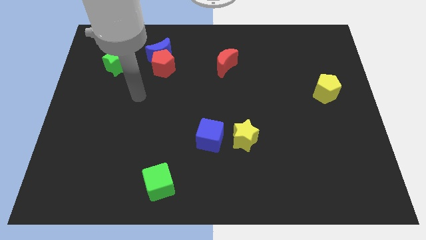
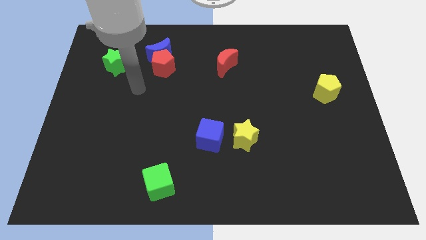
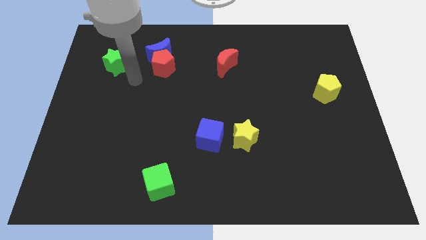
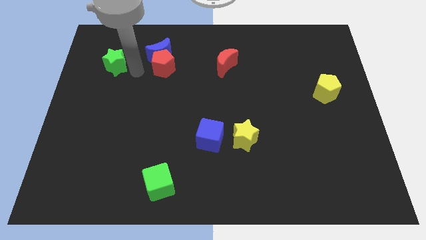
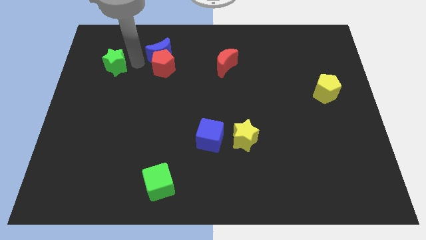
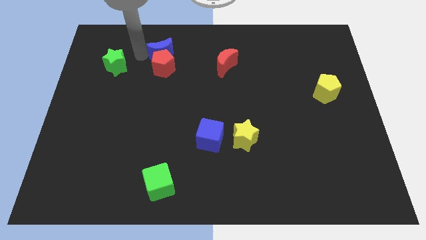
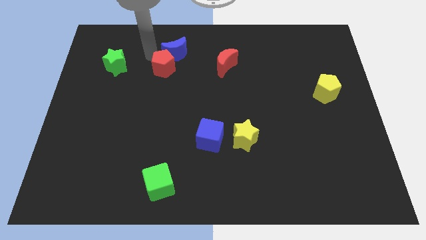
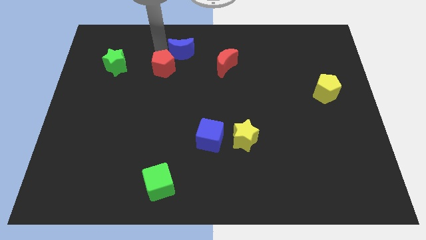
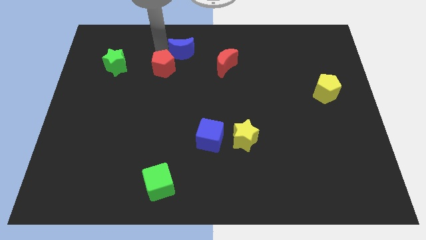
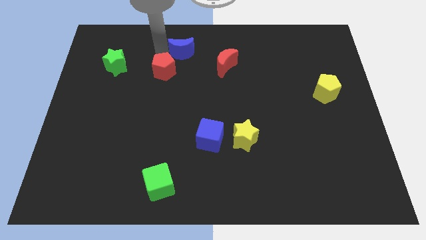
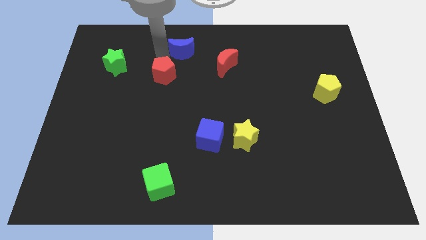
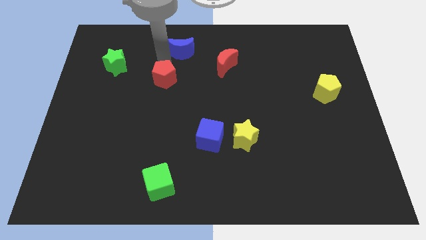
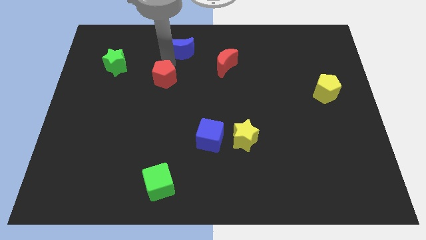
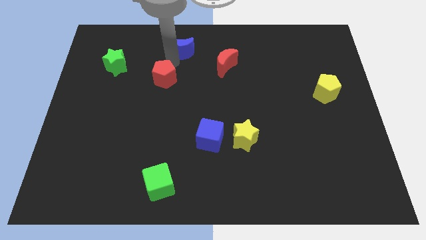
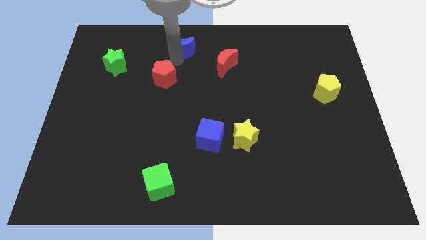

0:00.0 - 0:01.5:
move the red pentagon away from the blue moon

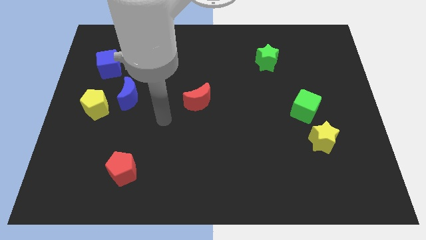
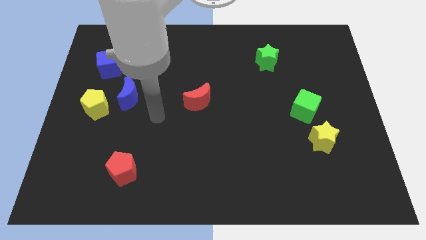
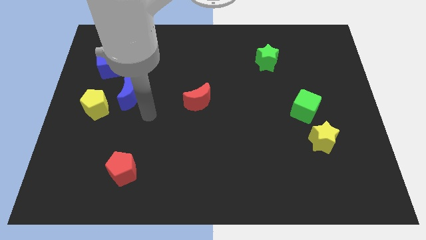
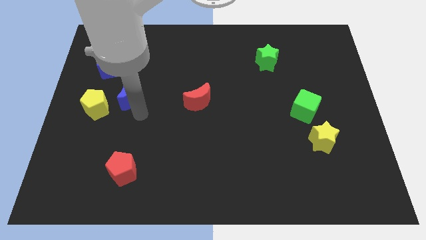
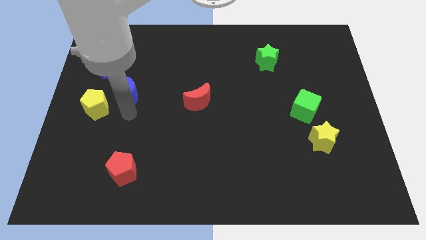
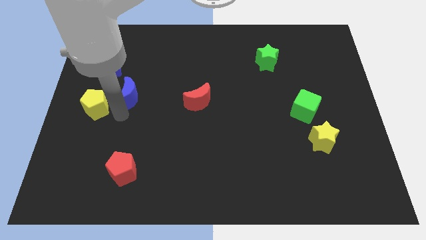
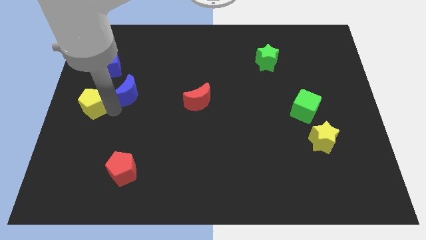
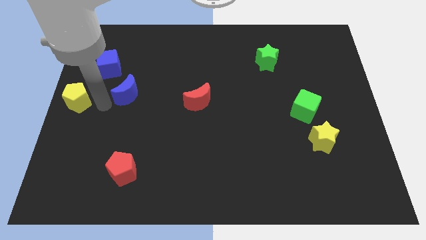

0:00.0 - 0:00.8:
move the blue moon away from the yellow pentagon

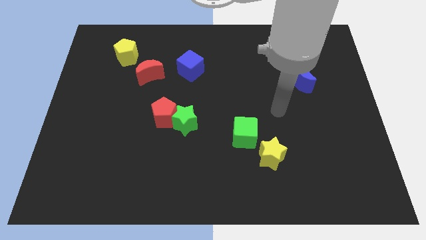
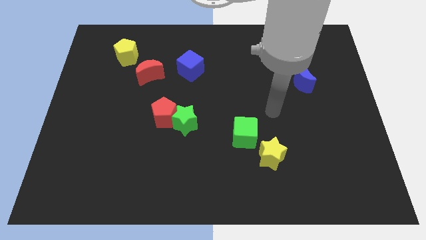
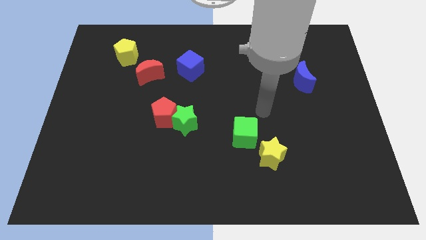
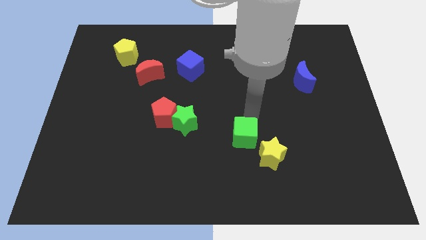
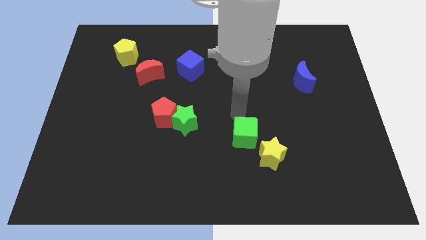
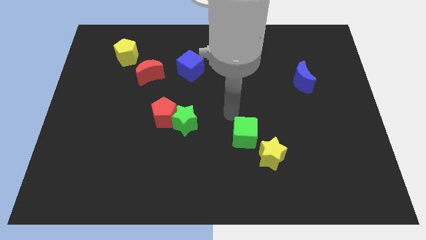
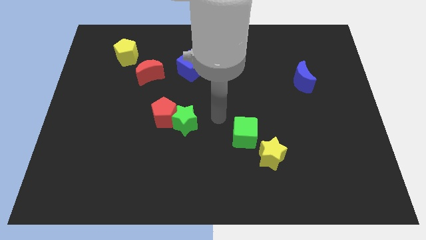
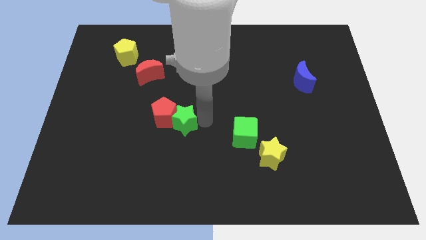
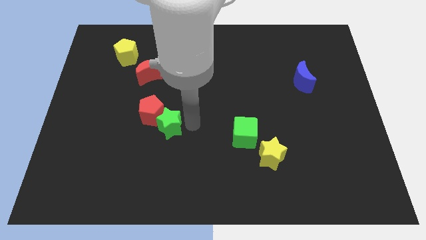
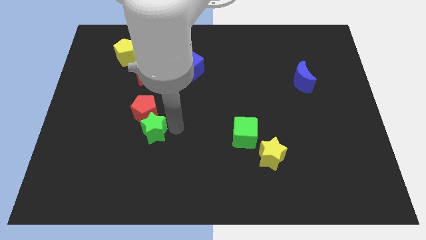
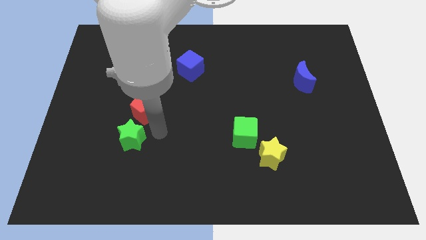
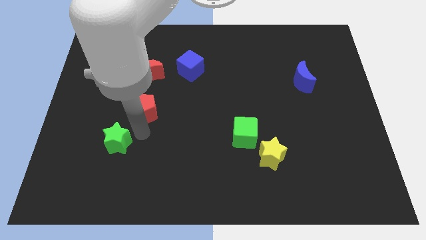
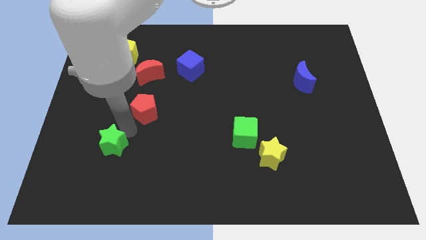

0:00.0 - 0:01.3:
pull the red pentagon apart from the green star

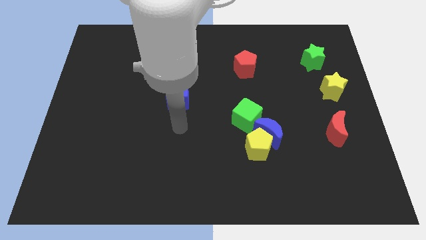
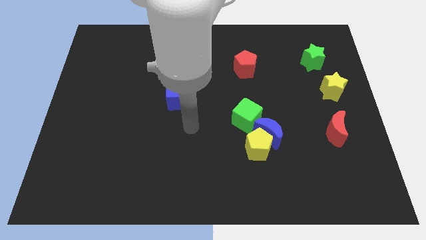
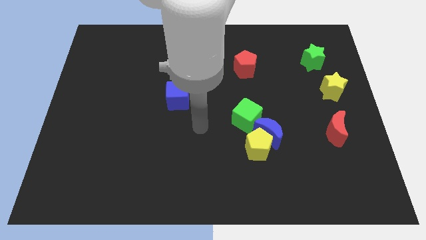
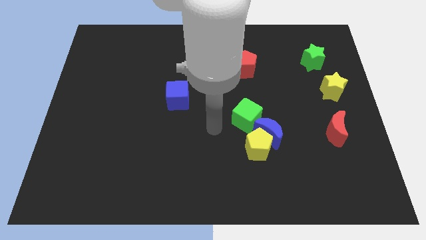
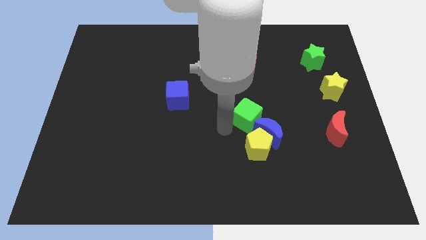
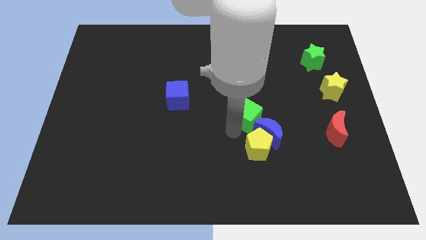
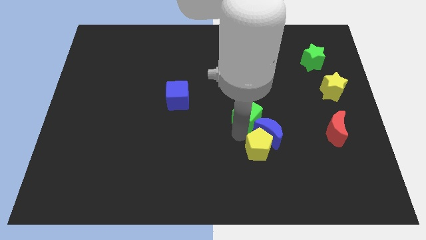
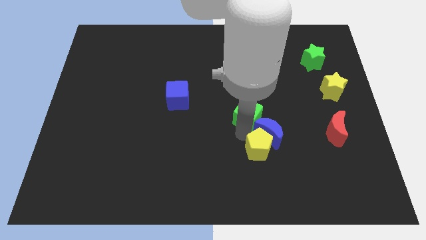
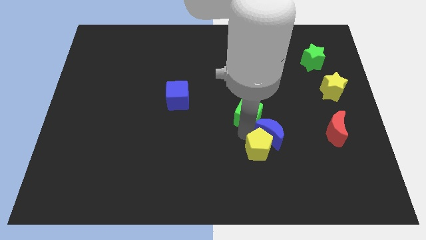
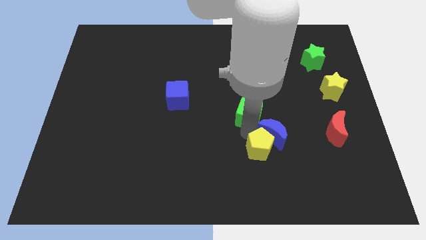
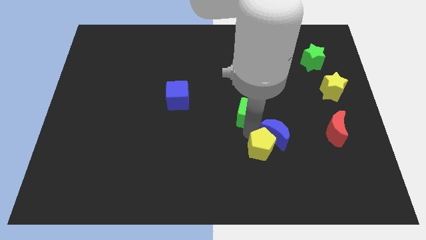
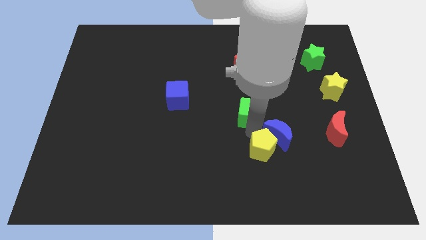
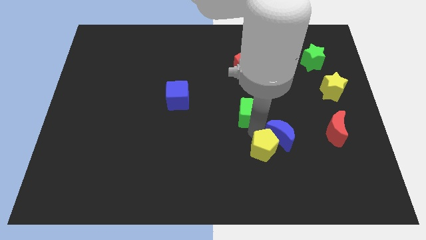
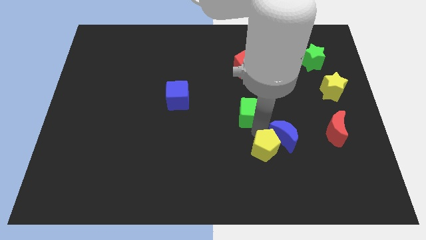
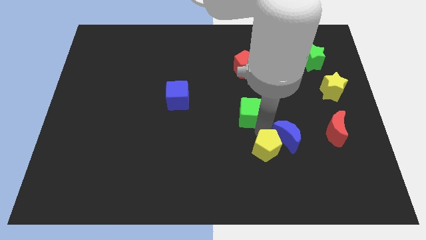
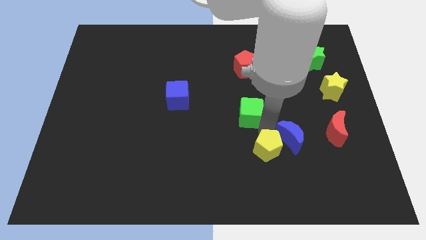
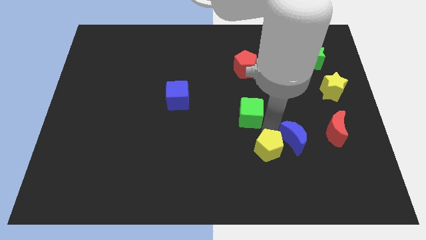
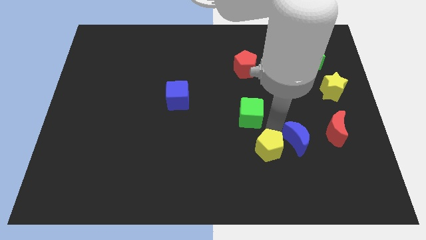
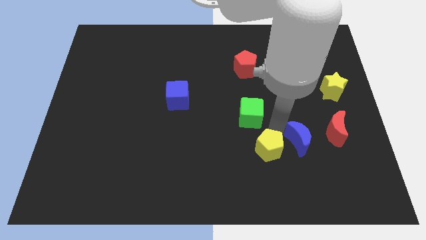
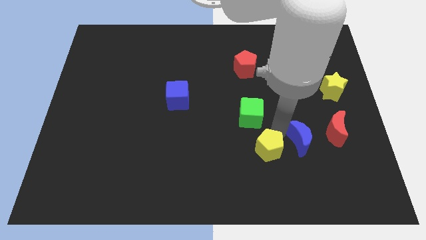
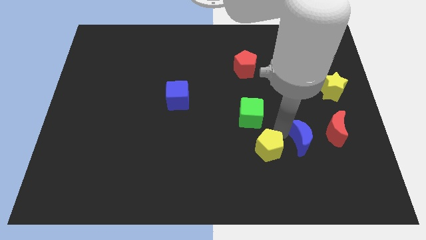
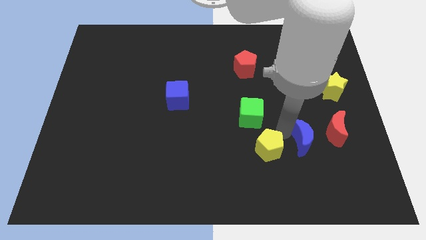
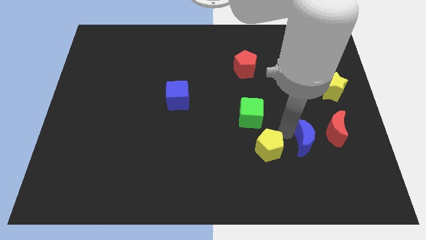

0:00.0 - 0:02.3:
move the blue moon away from the yellow pentagon and green cube

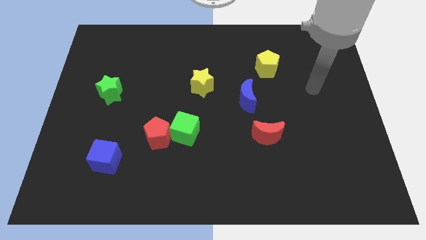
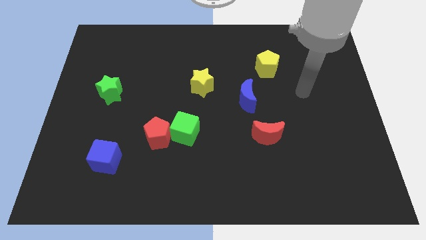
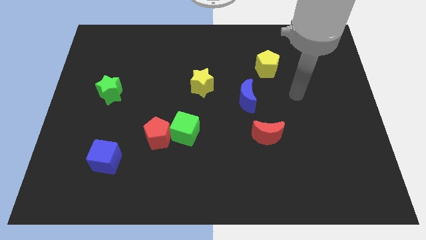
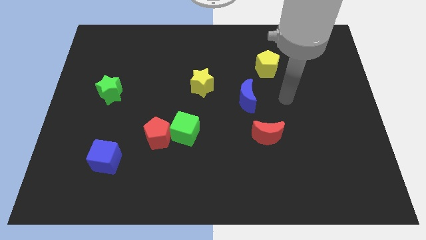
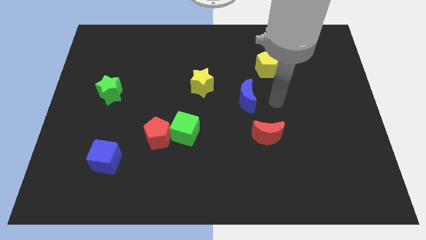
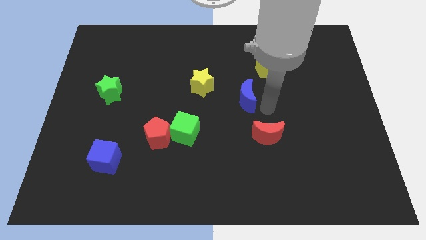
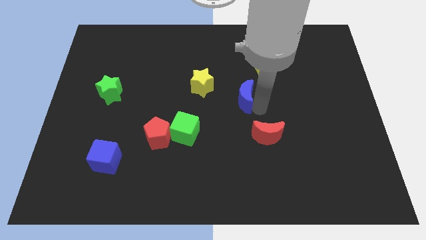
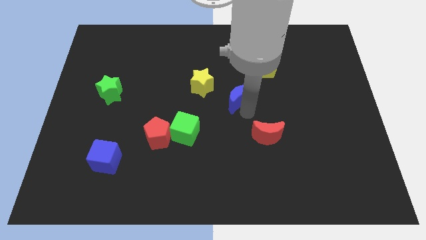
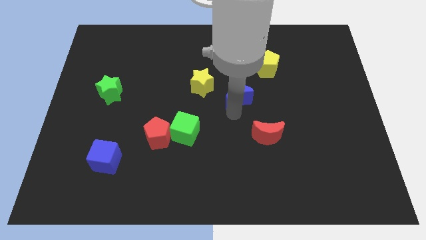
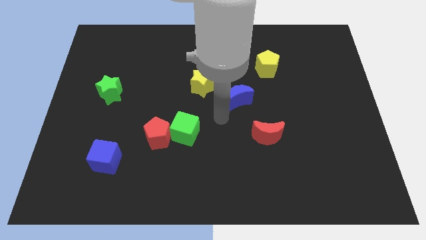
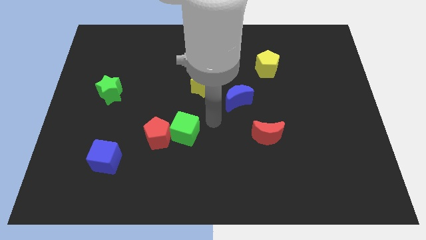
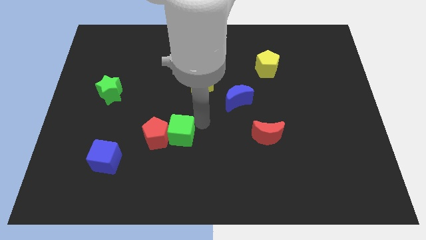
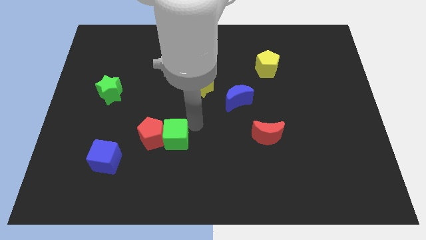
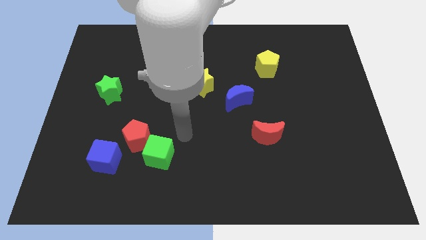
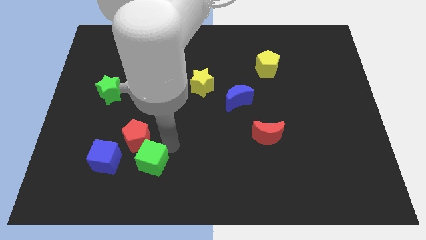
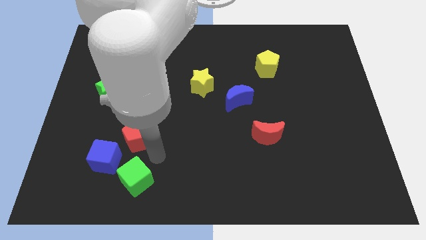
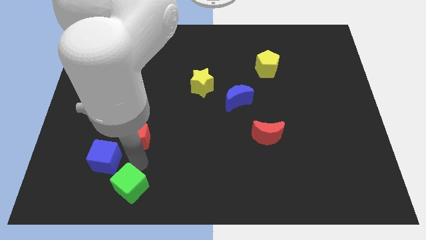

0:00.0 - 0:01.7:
move the red pentagon away from the green cube

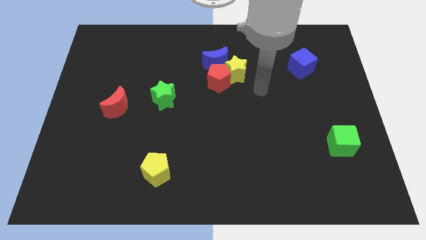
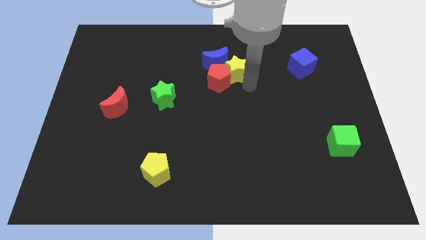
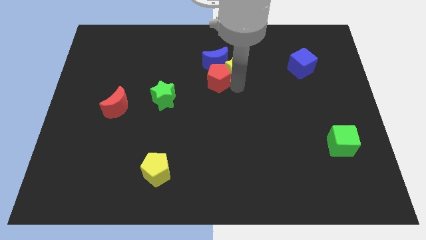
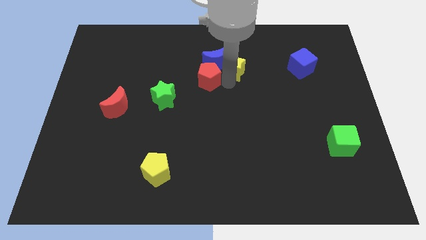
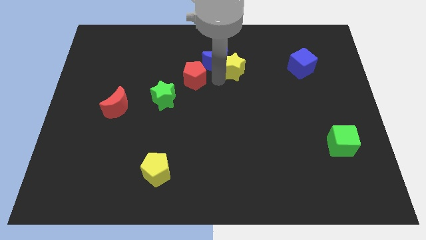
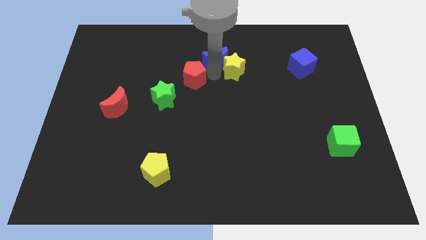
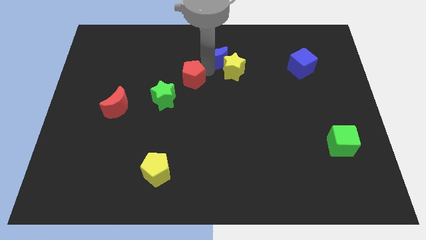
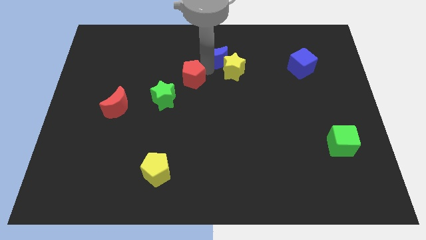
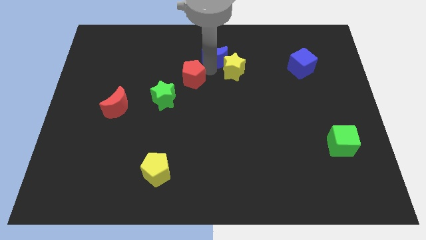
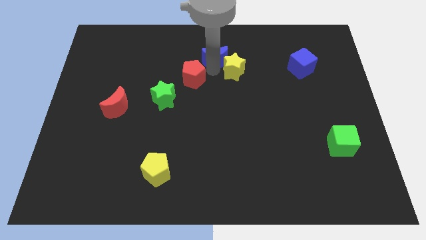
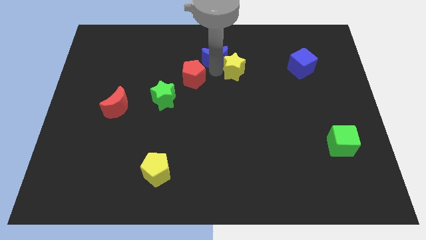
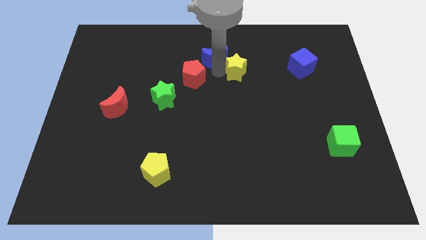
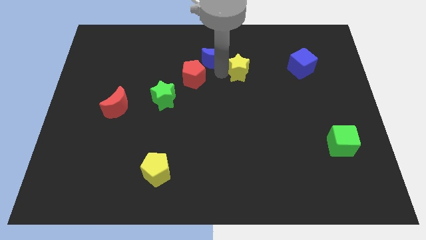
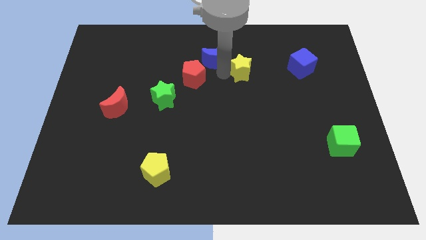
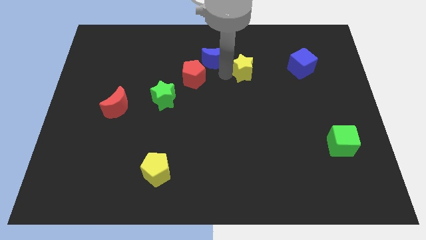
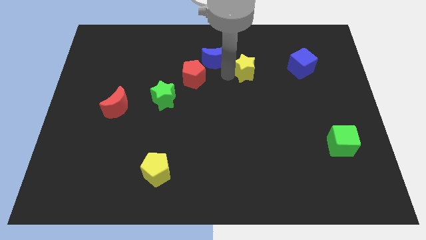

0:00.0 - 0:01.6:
pull the yellow star apart from the red pentagon and blue moon
